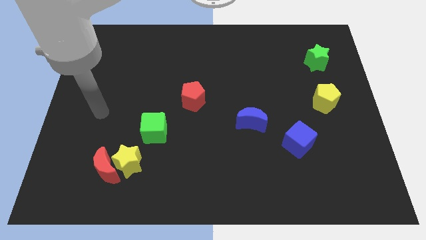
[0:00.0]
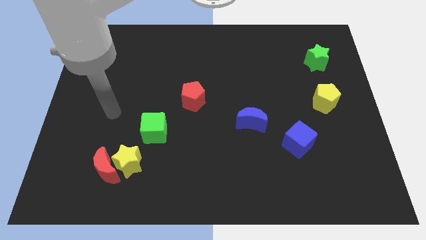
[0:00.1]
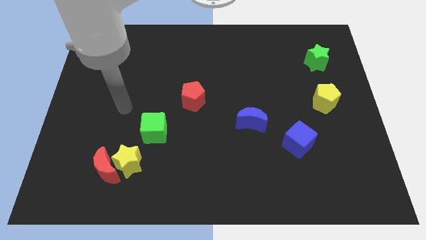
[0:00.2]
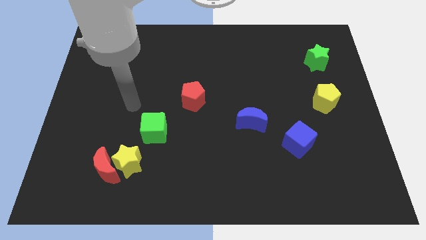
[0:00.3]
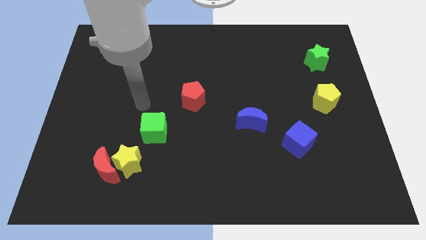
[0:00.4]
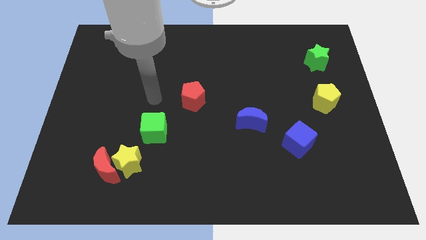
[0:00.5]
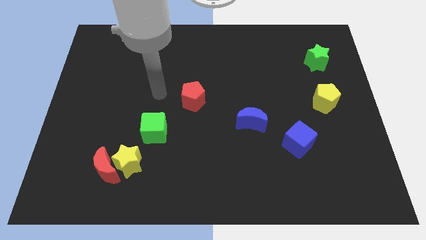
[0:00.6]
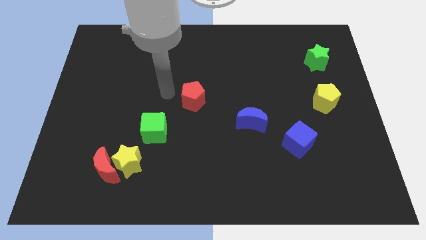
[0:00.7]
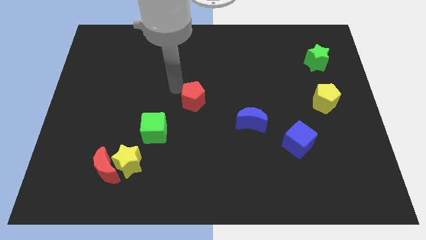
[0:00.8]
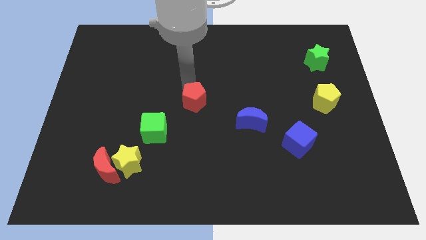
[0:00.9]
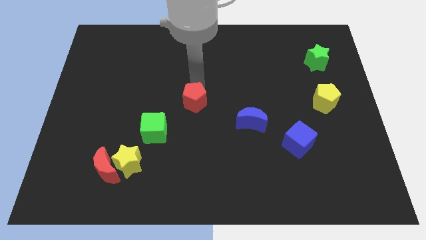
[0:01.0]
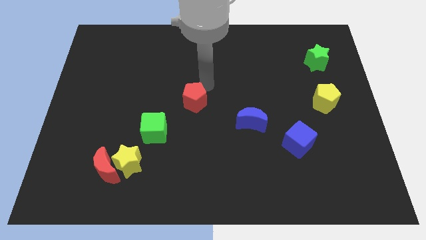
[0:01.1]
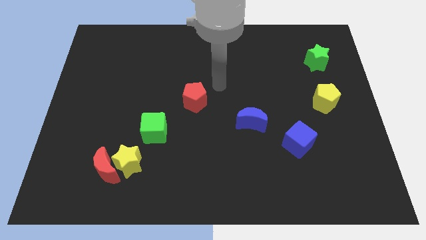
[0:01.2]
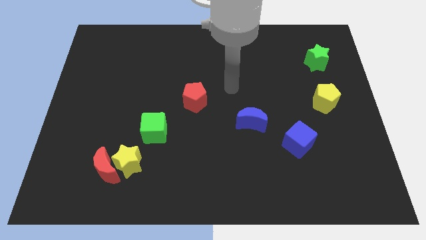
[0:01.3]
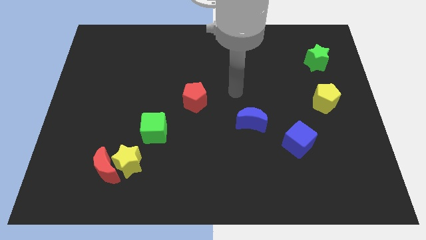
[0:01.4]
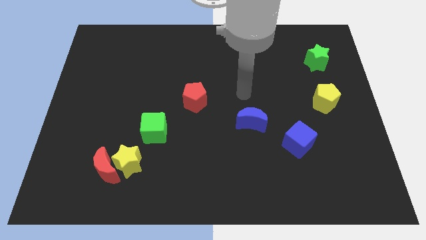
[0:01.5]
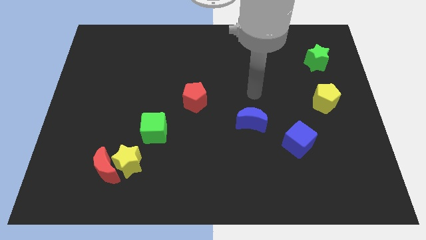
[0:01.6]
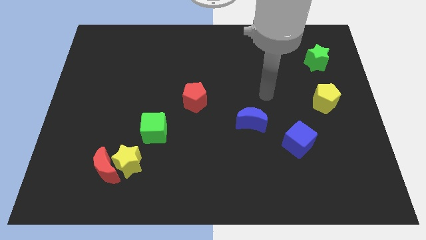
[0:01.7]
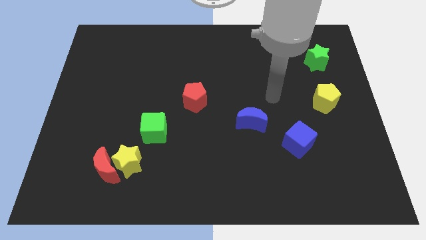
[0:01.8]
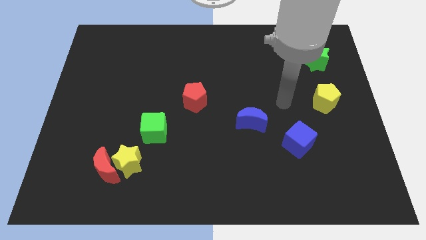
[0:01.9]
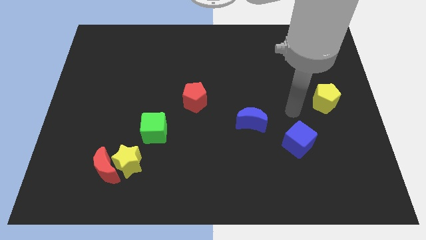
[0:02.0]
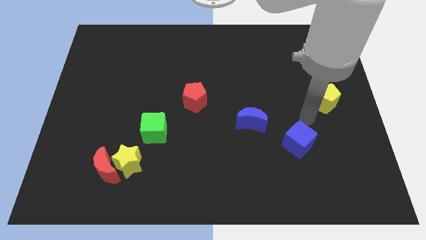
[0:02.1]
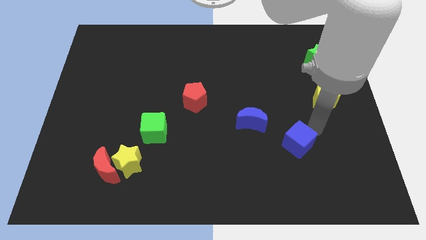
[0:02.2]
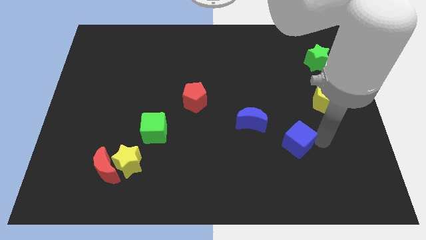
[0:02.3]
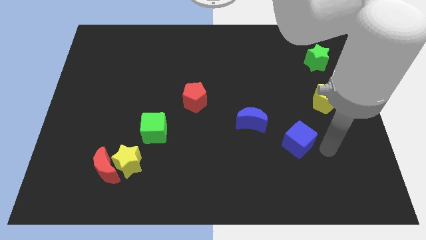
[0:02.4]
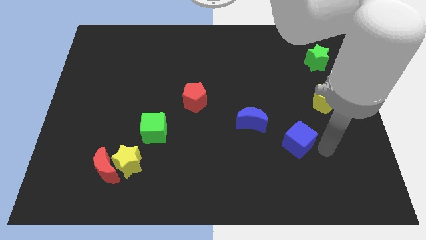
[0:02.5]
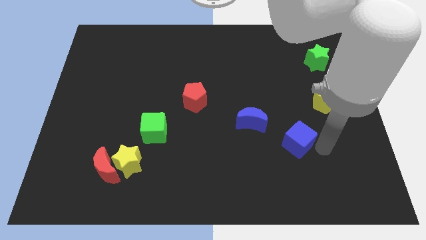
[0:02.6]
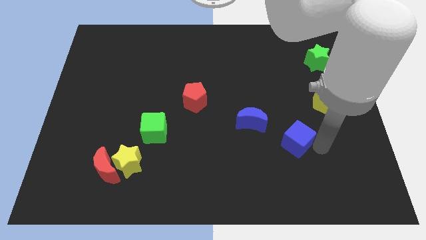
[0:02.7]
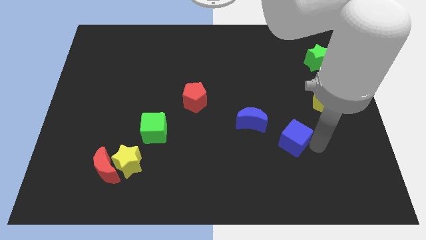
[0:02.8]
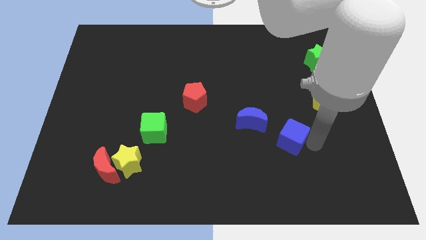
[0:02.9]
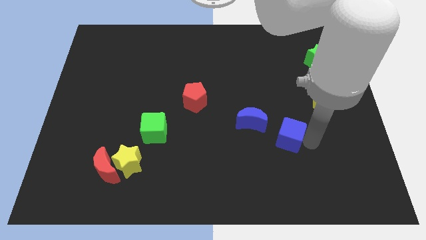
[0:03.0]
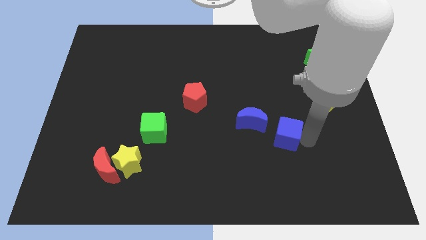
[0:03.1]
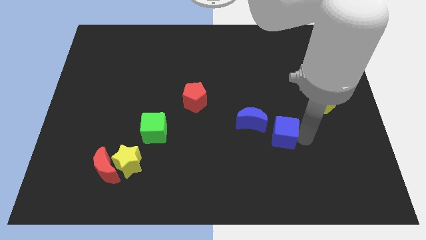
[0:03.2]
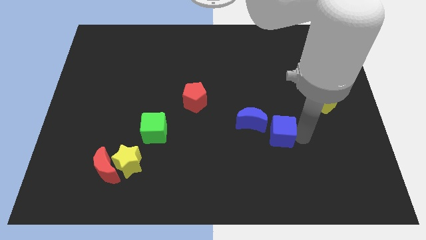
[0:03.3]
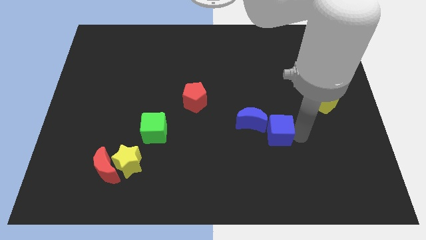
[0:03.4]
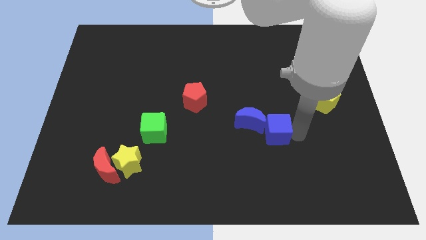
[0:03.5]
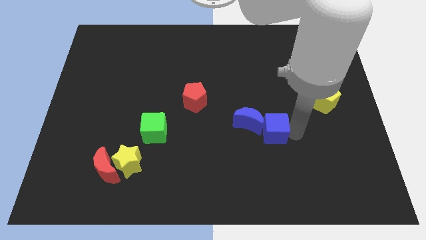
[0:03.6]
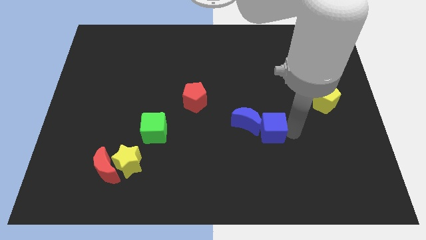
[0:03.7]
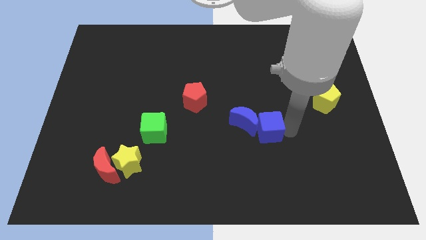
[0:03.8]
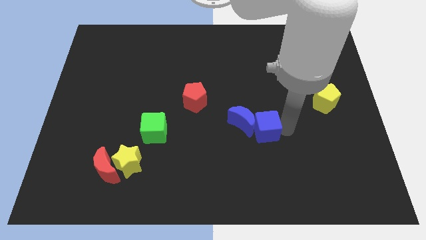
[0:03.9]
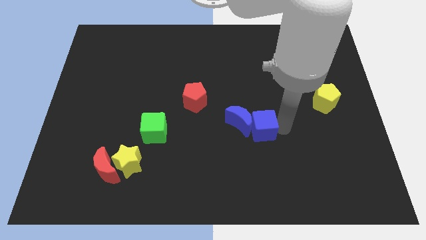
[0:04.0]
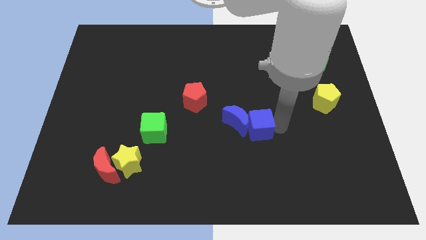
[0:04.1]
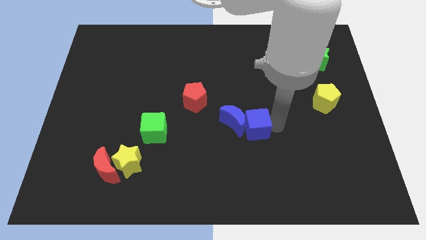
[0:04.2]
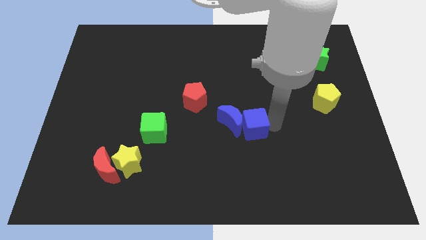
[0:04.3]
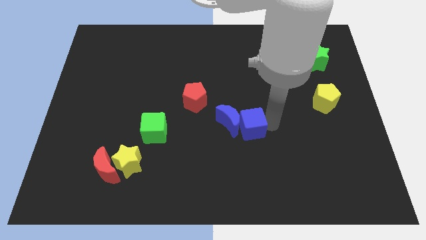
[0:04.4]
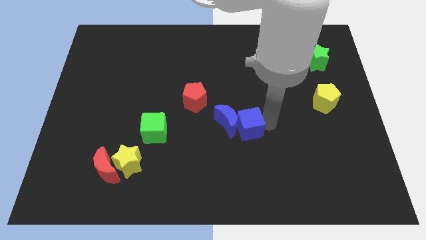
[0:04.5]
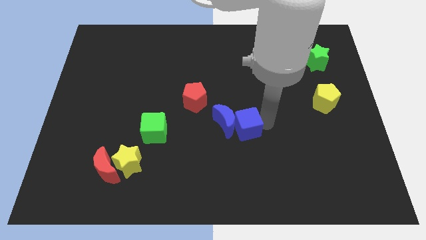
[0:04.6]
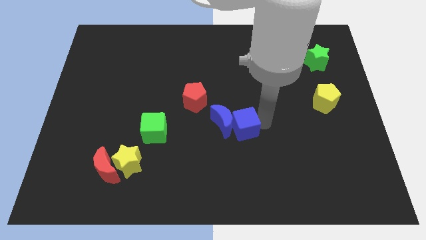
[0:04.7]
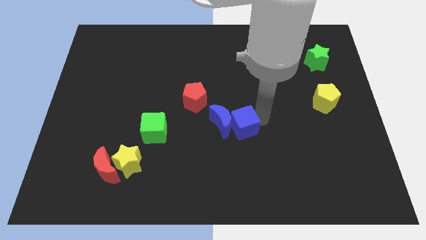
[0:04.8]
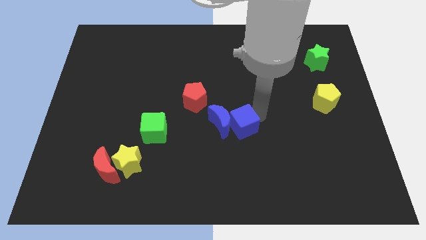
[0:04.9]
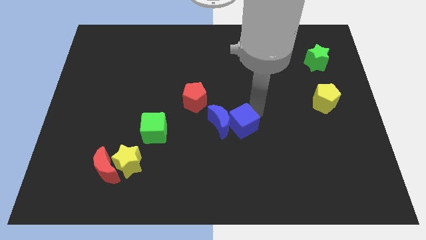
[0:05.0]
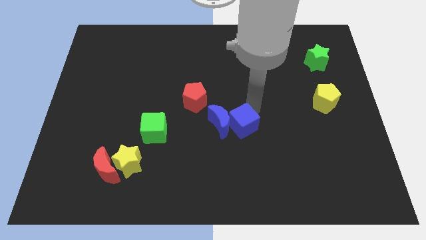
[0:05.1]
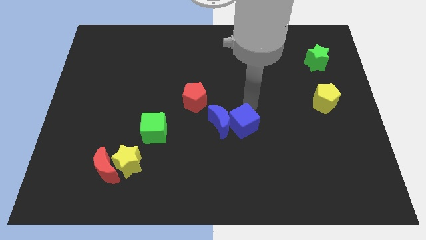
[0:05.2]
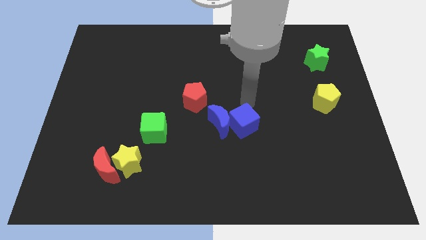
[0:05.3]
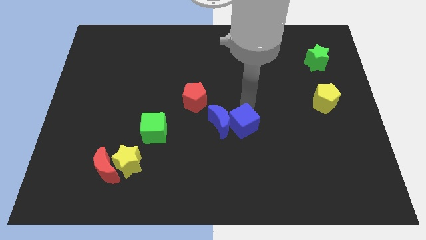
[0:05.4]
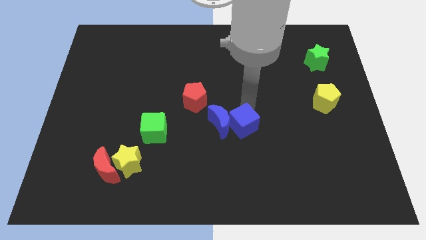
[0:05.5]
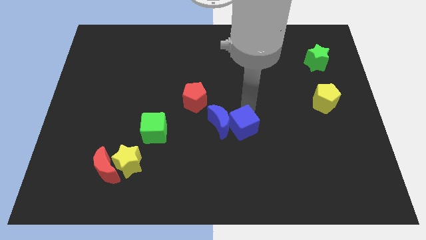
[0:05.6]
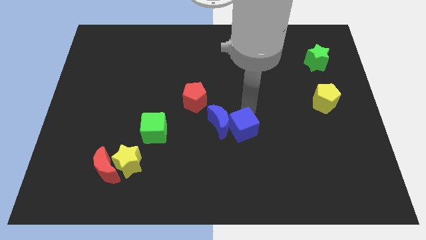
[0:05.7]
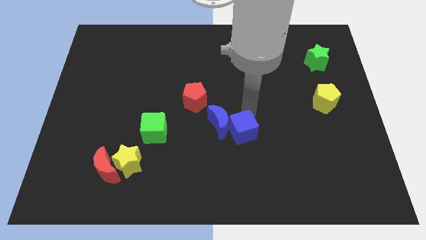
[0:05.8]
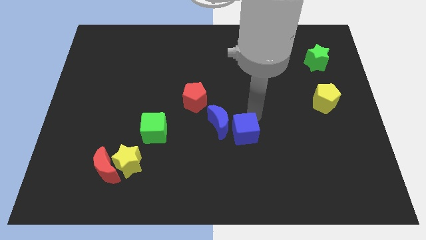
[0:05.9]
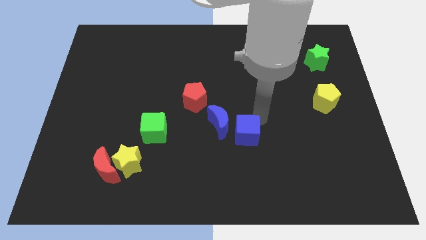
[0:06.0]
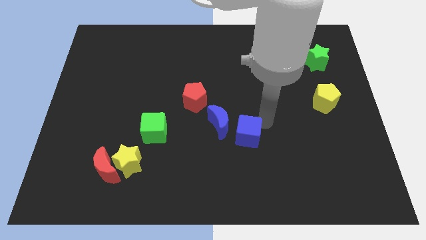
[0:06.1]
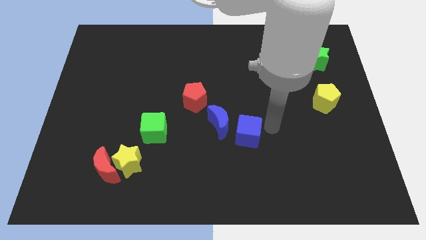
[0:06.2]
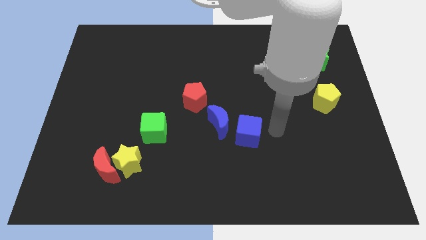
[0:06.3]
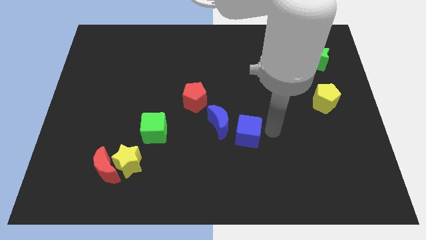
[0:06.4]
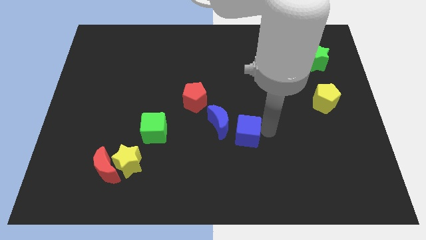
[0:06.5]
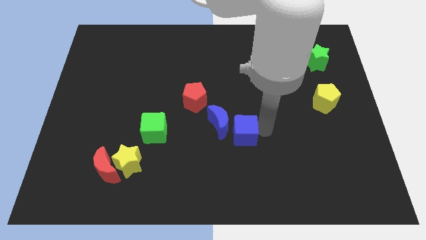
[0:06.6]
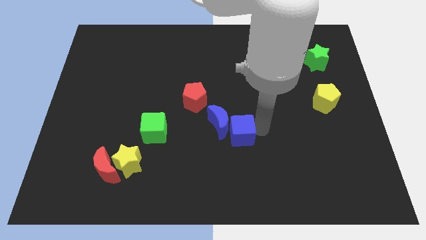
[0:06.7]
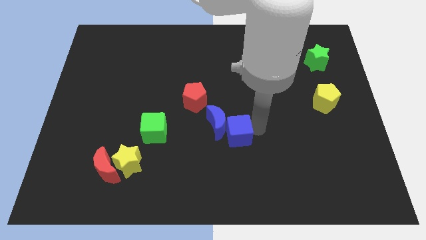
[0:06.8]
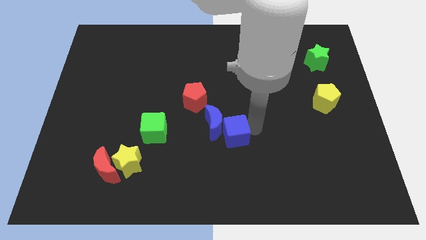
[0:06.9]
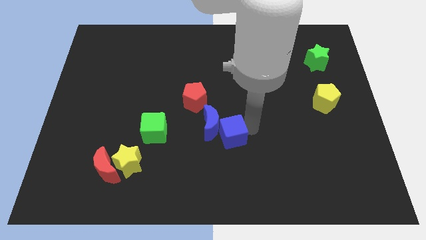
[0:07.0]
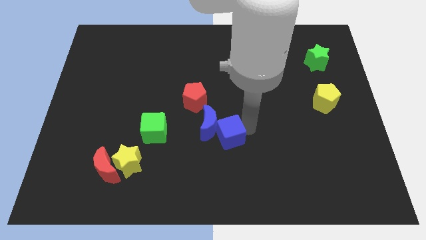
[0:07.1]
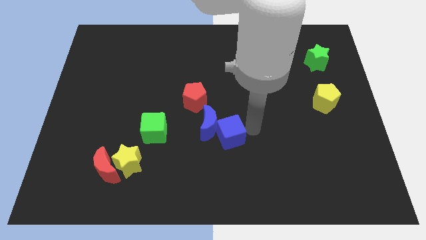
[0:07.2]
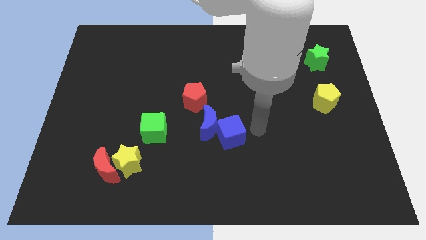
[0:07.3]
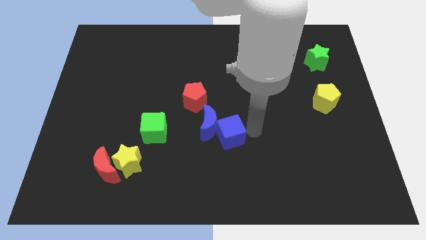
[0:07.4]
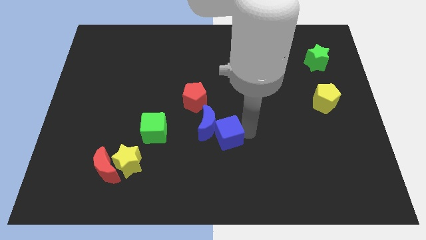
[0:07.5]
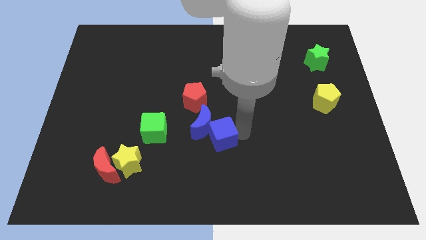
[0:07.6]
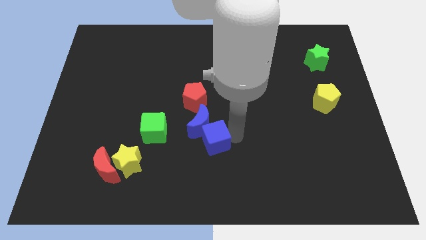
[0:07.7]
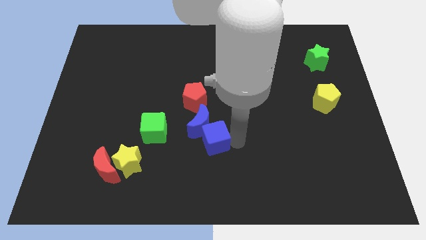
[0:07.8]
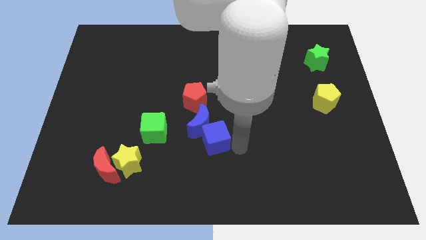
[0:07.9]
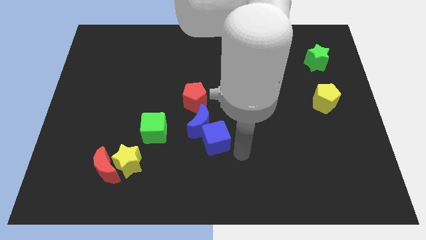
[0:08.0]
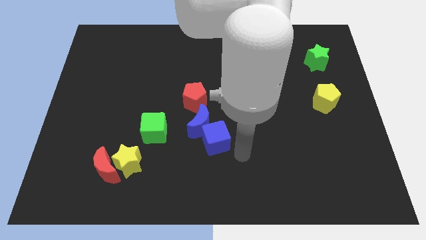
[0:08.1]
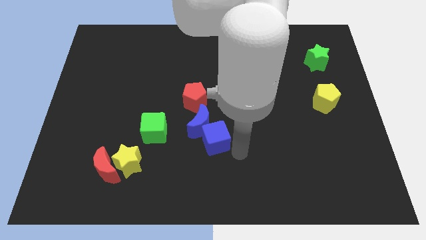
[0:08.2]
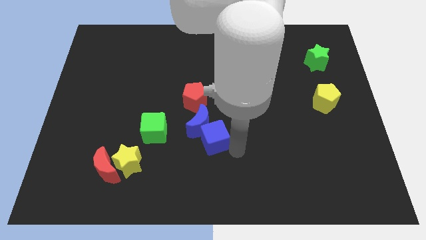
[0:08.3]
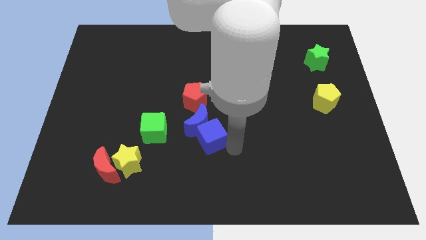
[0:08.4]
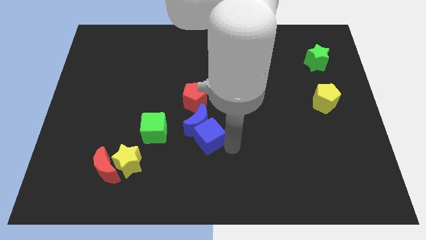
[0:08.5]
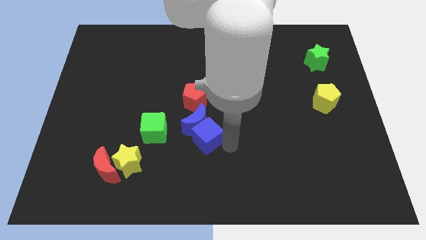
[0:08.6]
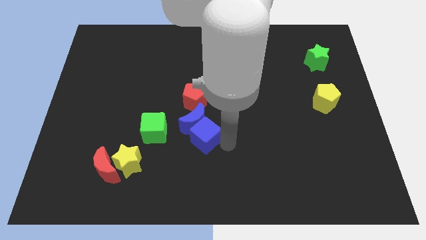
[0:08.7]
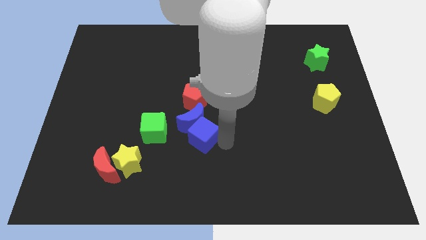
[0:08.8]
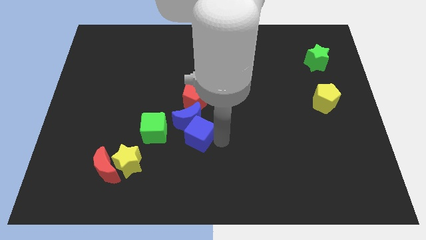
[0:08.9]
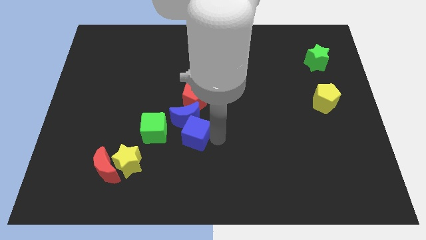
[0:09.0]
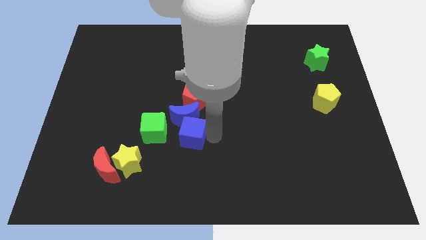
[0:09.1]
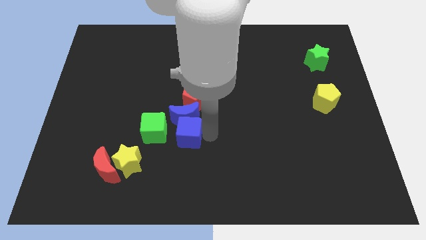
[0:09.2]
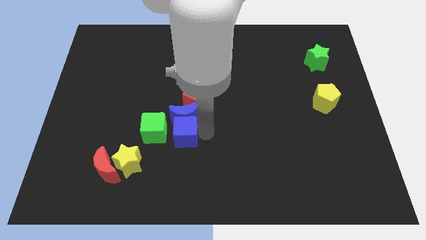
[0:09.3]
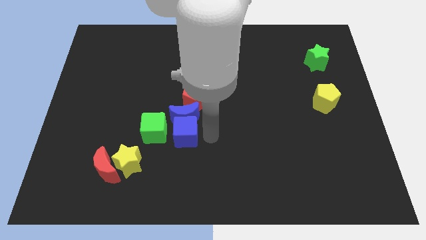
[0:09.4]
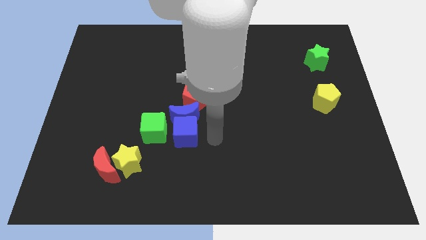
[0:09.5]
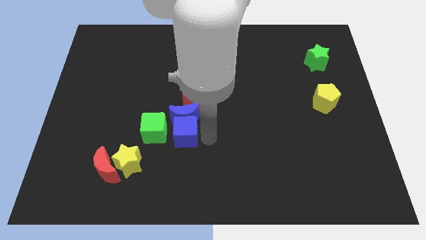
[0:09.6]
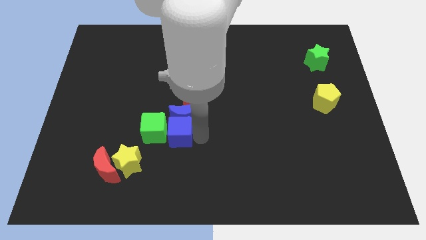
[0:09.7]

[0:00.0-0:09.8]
slide the blue cube next to the green cube
